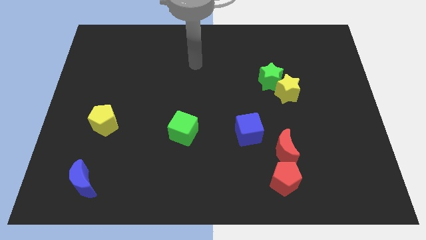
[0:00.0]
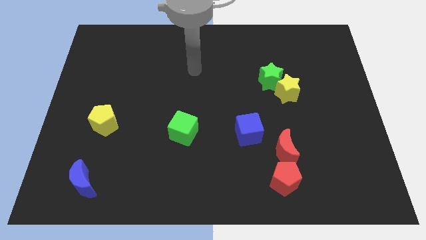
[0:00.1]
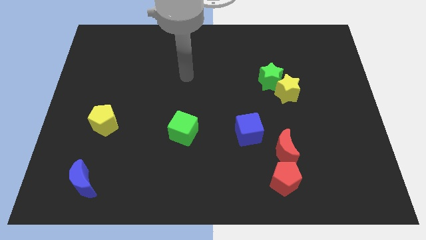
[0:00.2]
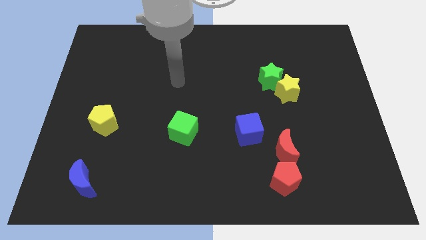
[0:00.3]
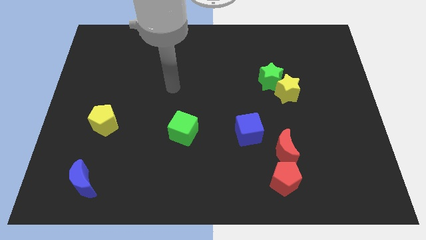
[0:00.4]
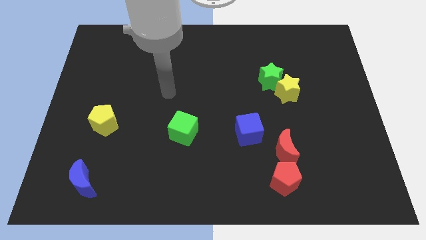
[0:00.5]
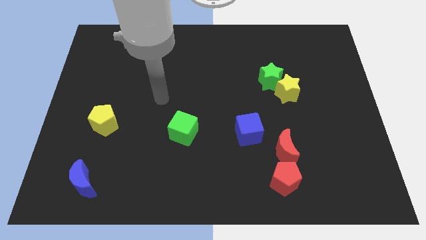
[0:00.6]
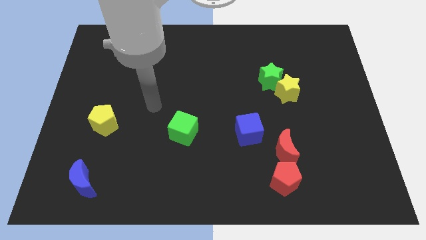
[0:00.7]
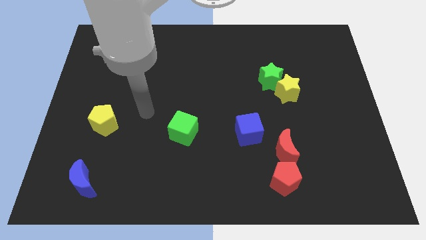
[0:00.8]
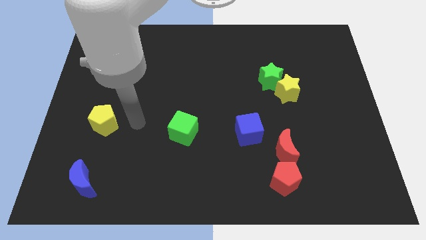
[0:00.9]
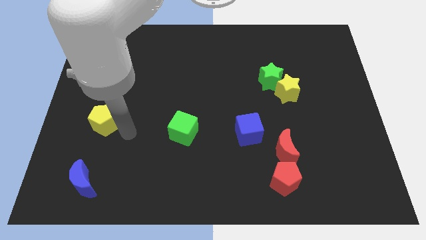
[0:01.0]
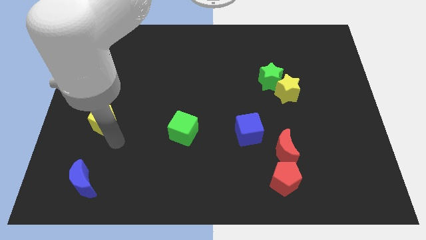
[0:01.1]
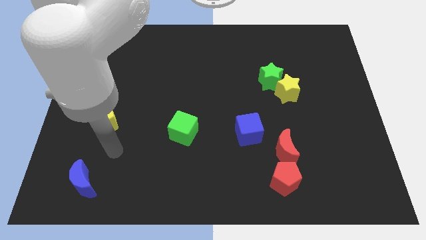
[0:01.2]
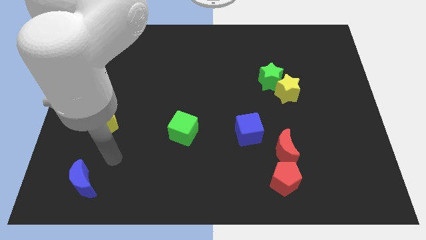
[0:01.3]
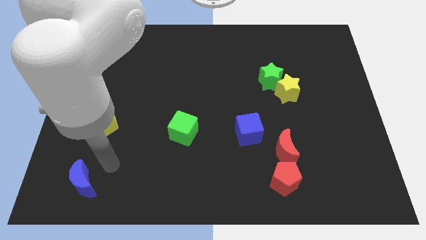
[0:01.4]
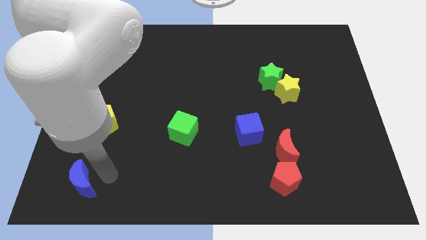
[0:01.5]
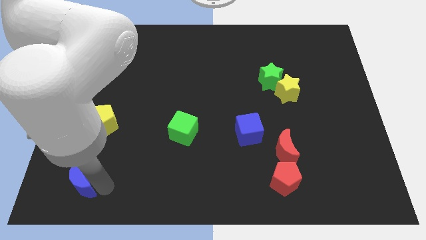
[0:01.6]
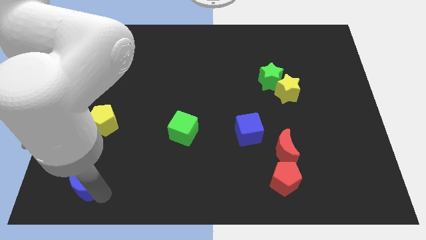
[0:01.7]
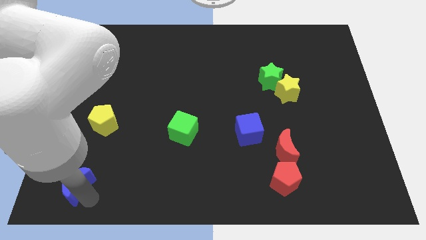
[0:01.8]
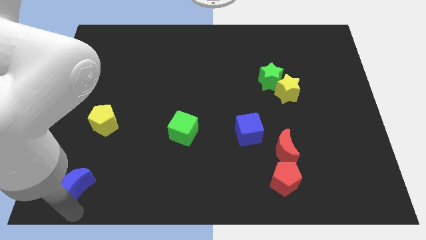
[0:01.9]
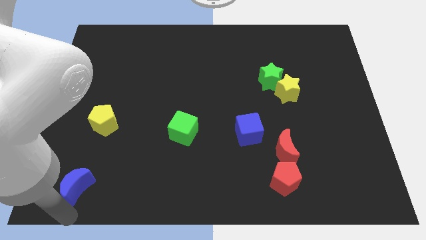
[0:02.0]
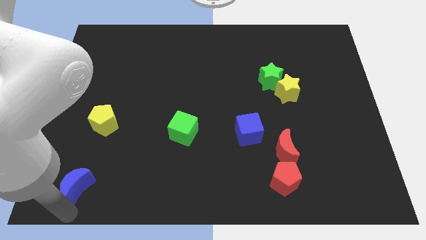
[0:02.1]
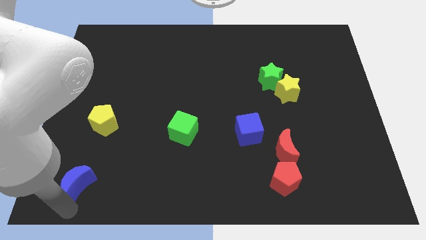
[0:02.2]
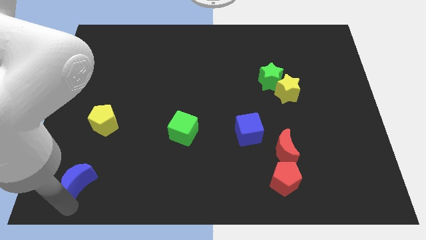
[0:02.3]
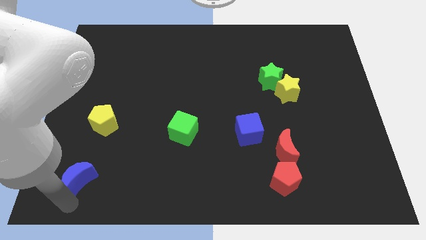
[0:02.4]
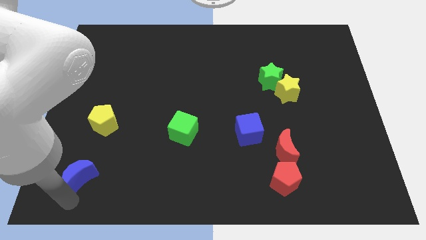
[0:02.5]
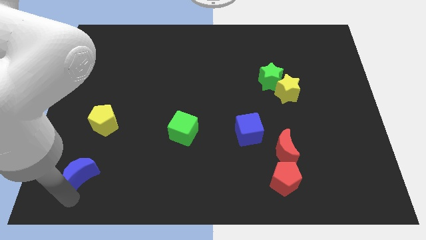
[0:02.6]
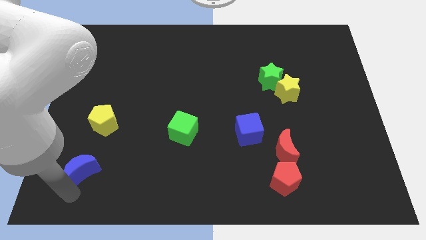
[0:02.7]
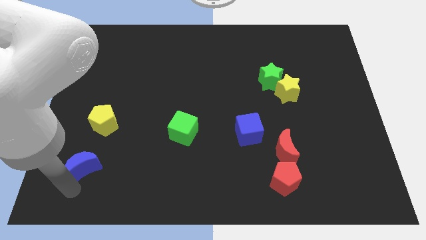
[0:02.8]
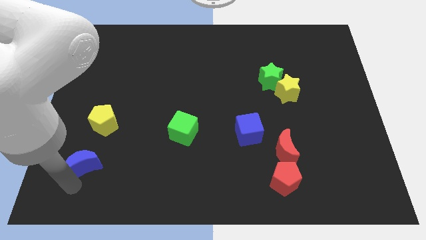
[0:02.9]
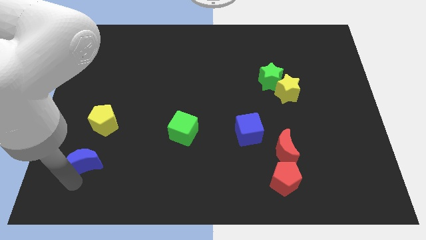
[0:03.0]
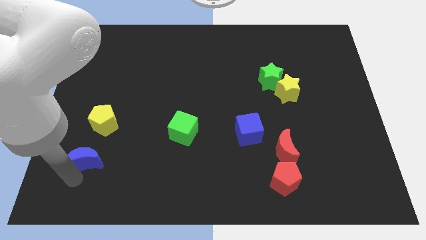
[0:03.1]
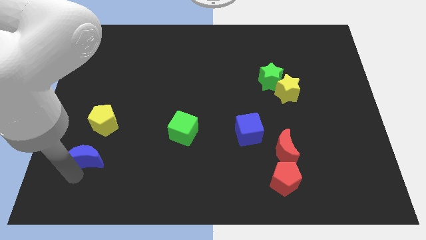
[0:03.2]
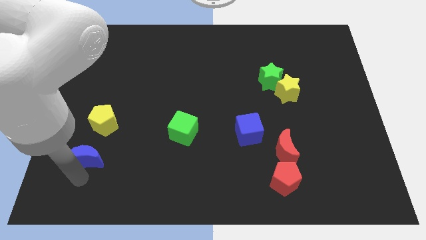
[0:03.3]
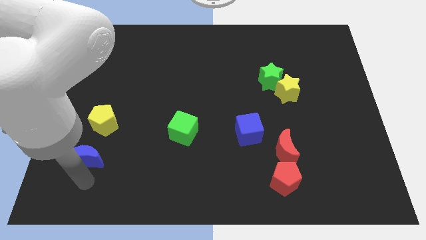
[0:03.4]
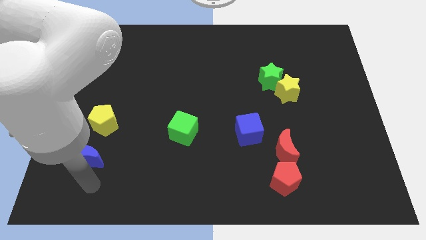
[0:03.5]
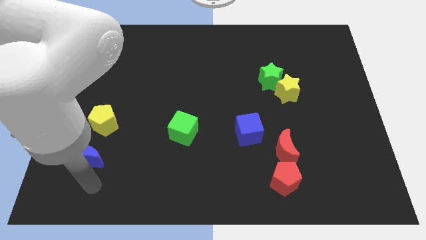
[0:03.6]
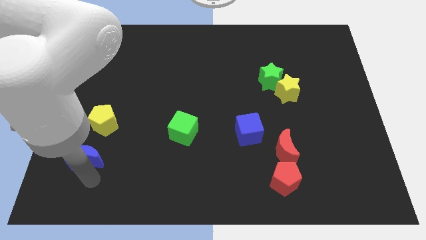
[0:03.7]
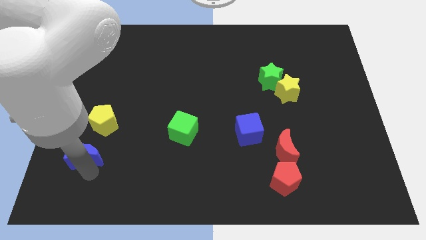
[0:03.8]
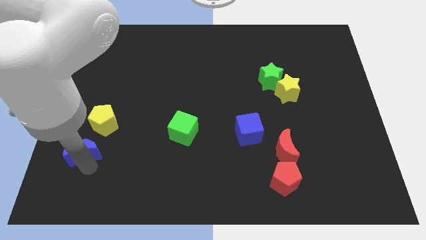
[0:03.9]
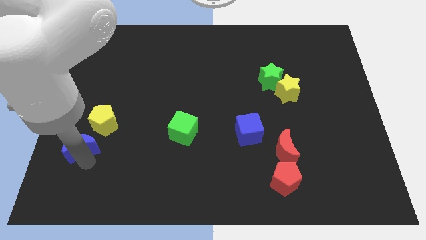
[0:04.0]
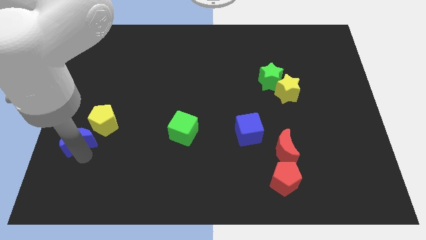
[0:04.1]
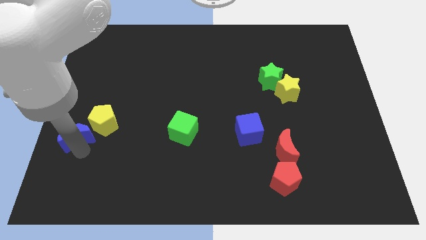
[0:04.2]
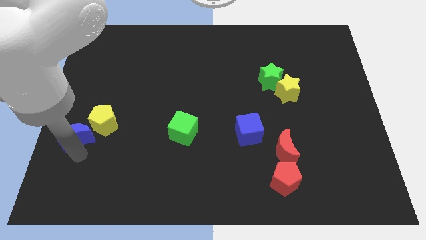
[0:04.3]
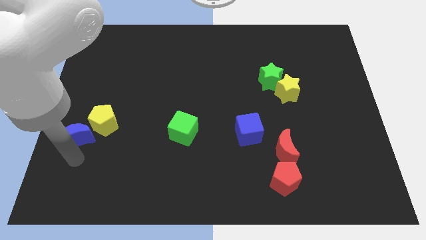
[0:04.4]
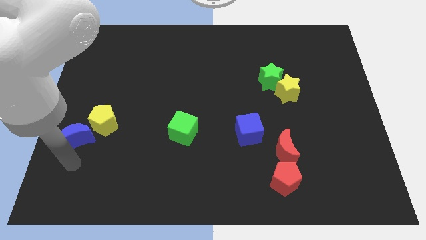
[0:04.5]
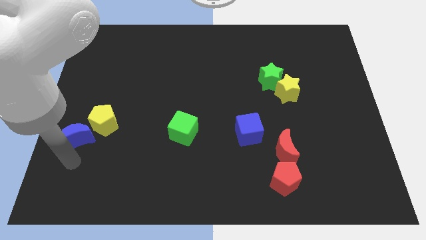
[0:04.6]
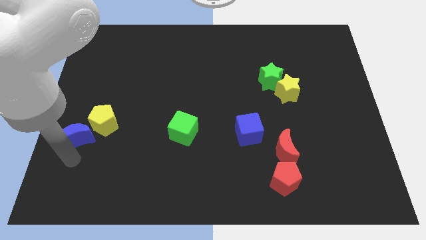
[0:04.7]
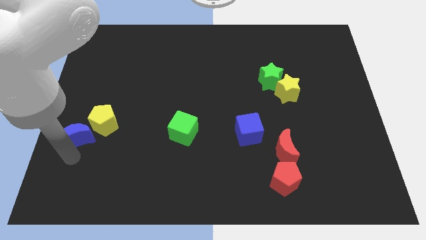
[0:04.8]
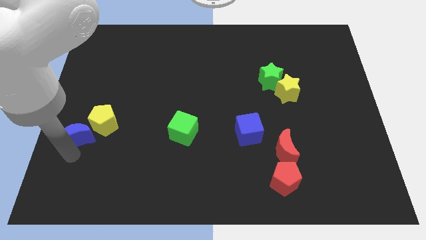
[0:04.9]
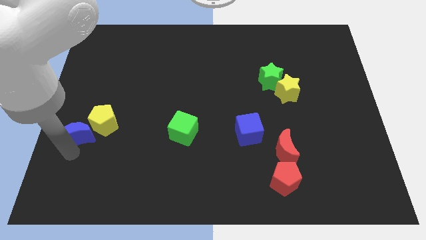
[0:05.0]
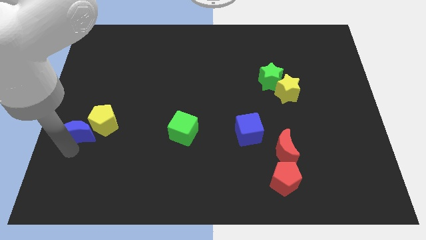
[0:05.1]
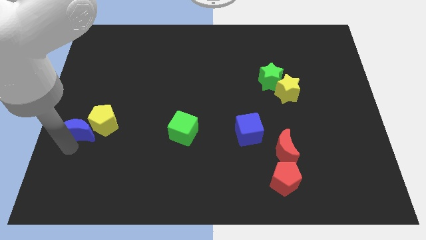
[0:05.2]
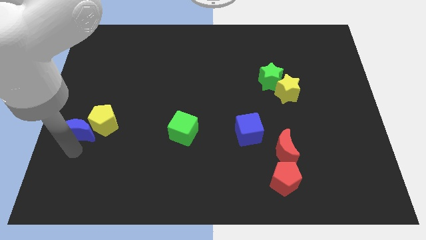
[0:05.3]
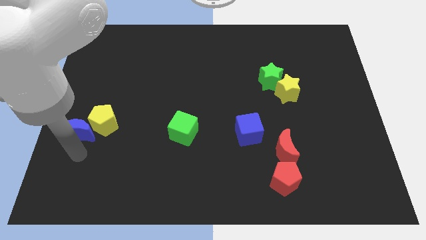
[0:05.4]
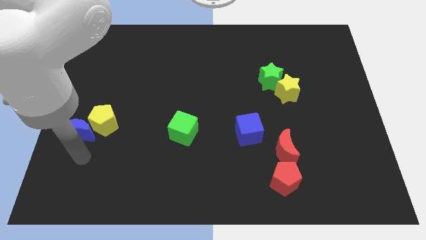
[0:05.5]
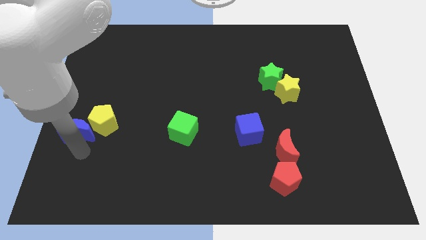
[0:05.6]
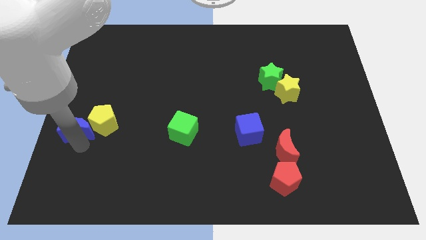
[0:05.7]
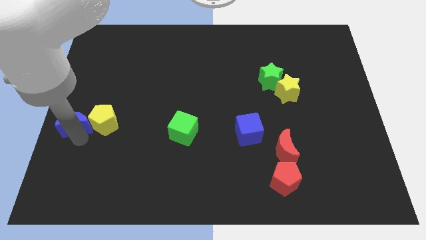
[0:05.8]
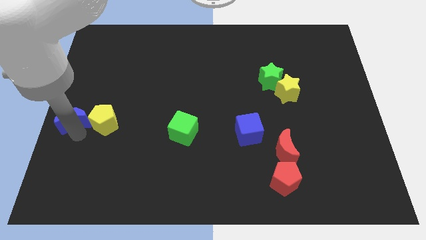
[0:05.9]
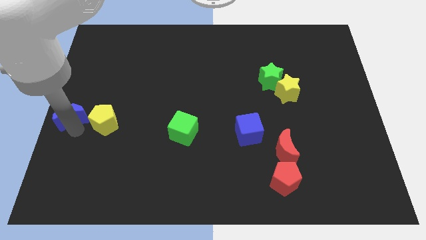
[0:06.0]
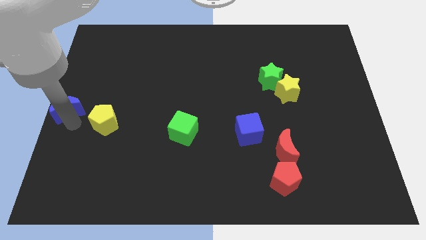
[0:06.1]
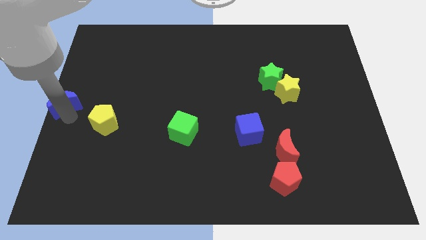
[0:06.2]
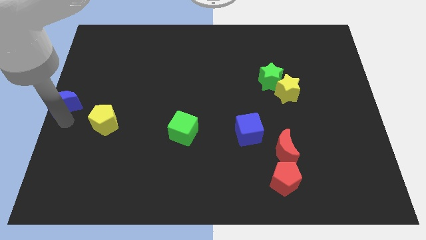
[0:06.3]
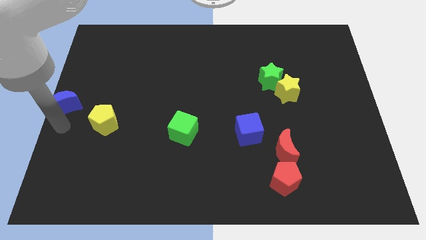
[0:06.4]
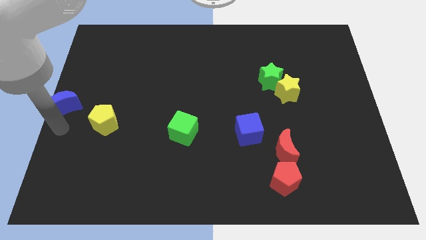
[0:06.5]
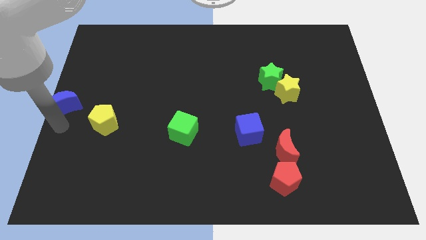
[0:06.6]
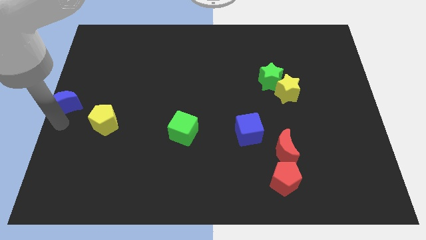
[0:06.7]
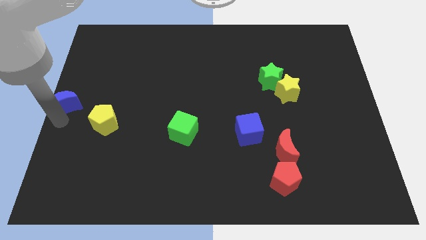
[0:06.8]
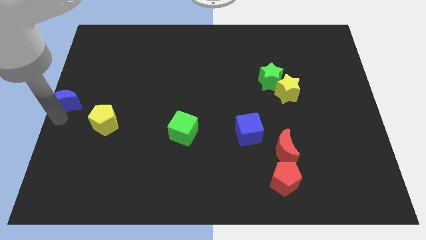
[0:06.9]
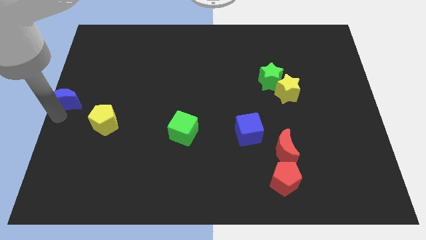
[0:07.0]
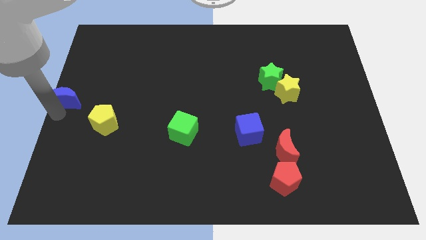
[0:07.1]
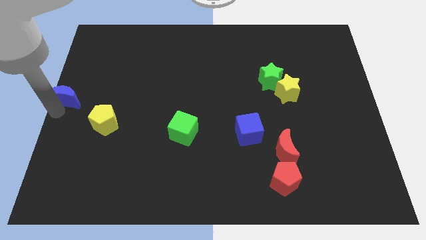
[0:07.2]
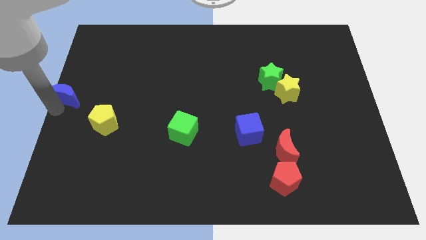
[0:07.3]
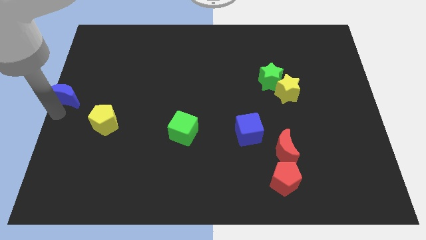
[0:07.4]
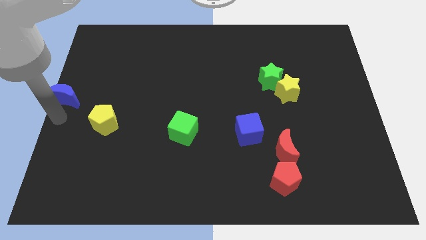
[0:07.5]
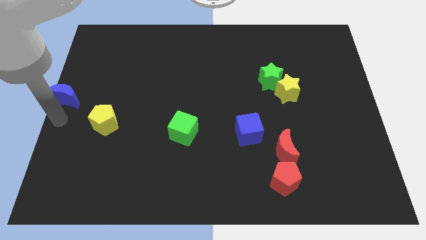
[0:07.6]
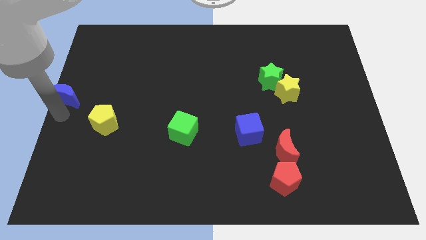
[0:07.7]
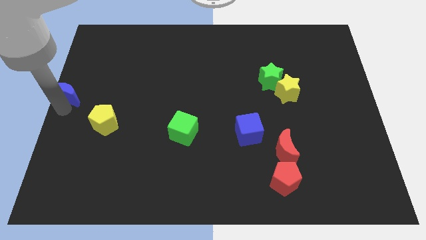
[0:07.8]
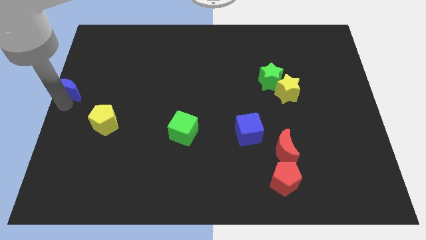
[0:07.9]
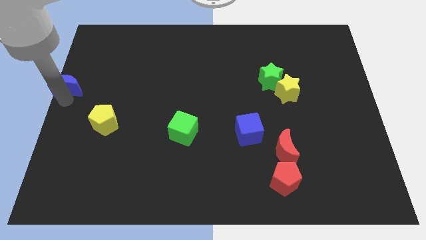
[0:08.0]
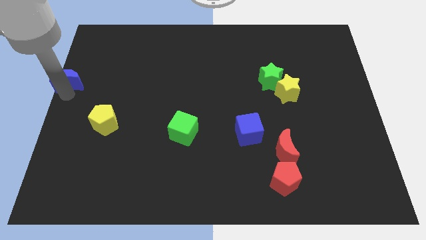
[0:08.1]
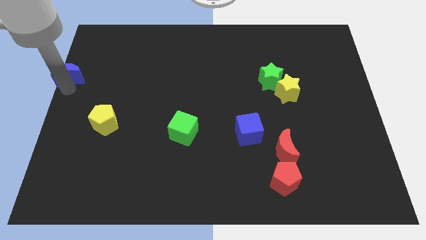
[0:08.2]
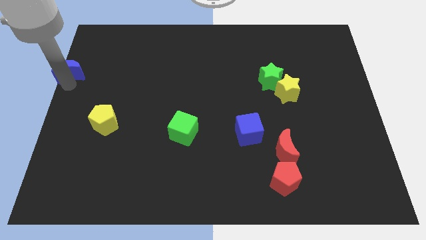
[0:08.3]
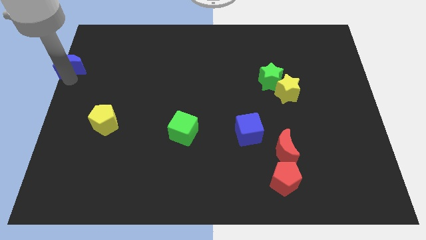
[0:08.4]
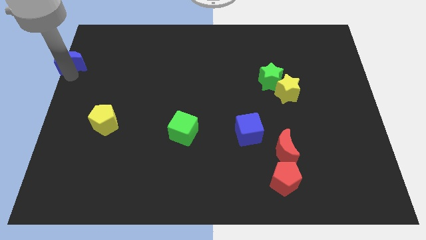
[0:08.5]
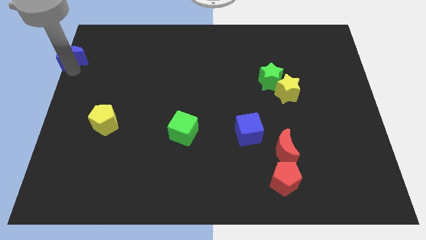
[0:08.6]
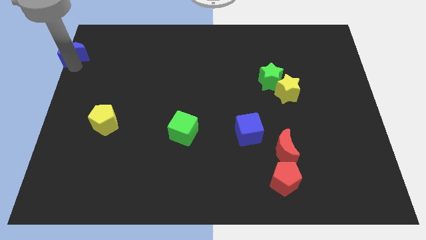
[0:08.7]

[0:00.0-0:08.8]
move the blue moon to the top left of the board
